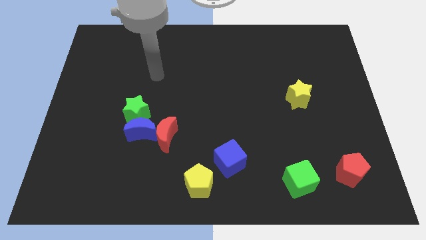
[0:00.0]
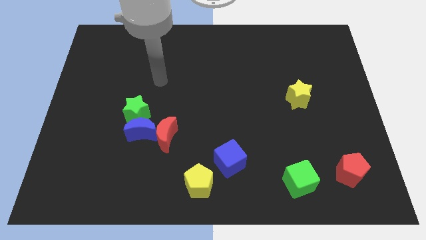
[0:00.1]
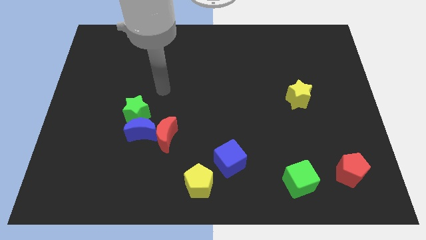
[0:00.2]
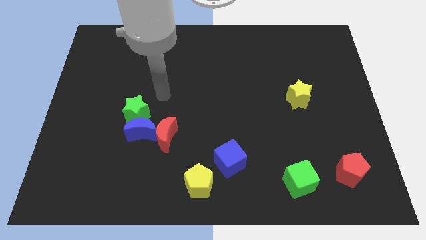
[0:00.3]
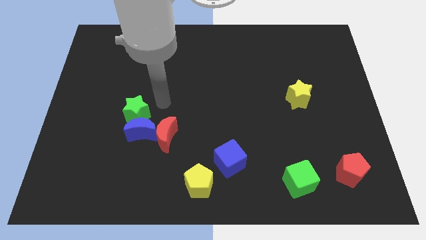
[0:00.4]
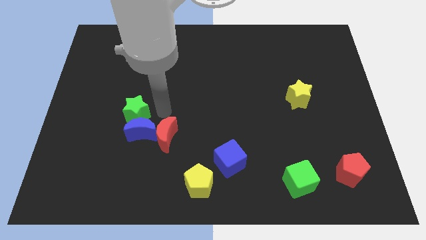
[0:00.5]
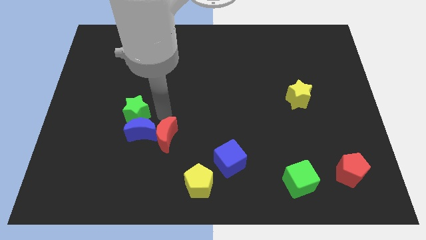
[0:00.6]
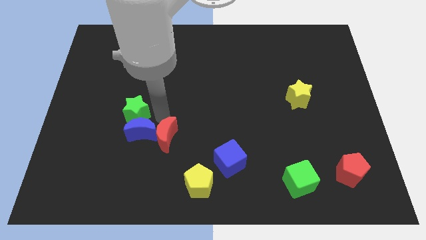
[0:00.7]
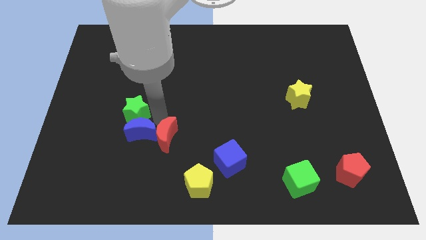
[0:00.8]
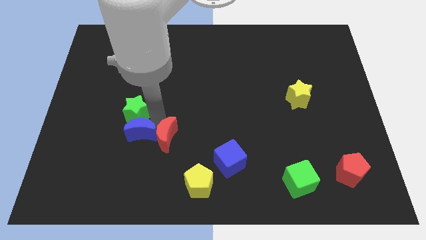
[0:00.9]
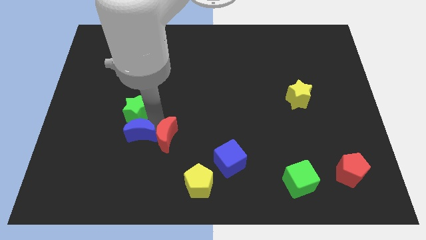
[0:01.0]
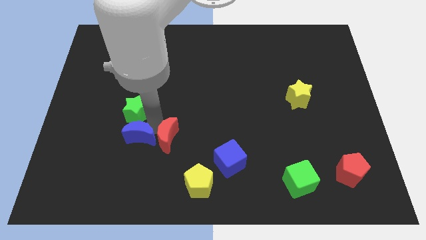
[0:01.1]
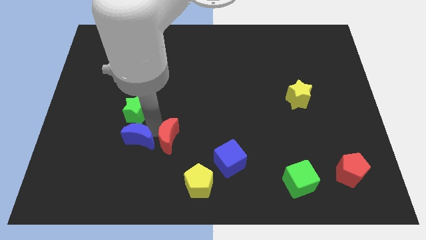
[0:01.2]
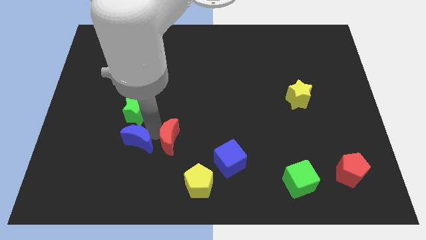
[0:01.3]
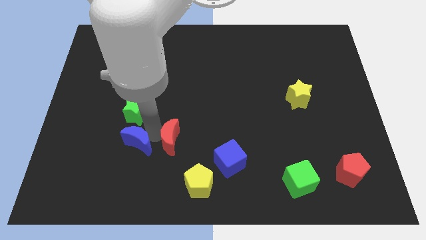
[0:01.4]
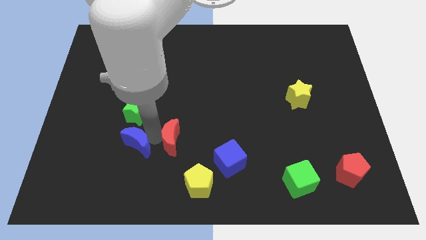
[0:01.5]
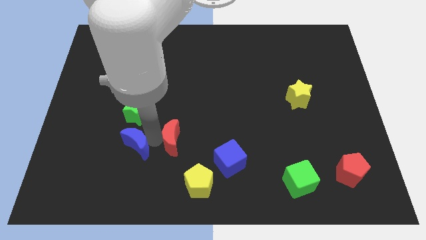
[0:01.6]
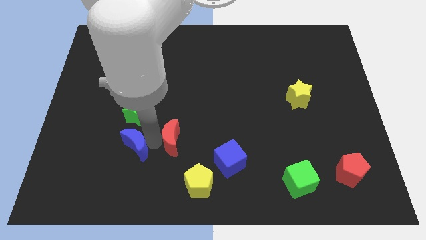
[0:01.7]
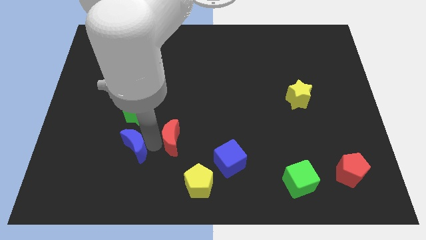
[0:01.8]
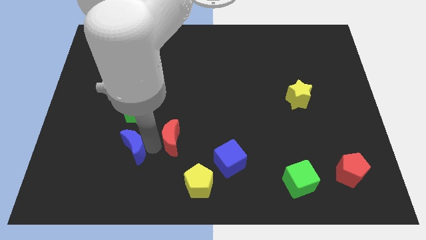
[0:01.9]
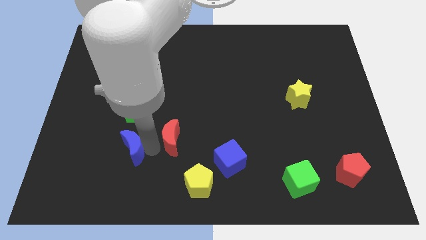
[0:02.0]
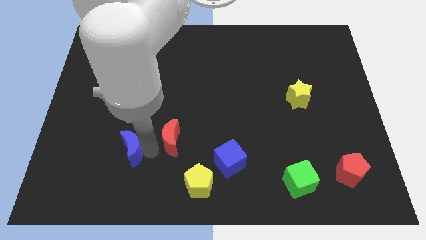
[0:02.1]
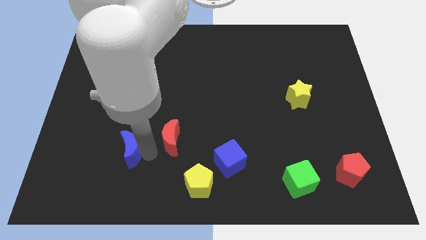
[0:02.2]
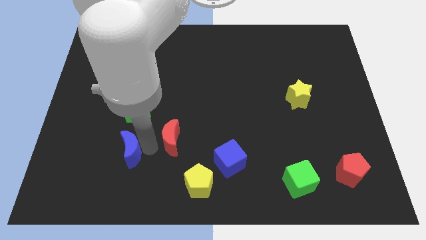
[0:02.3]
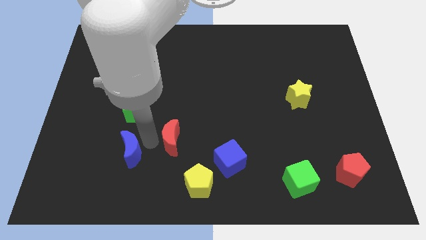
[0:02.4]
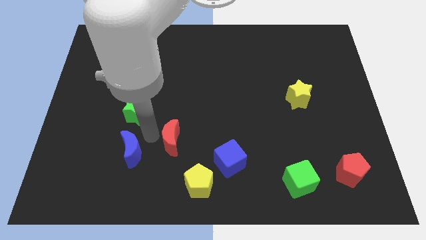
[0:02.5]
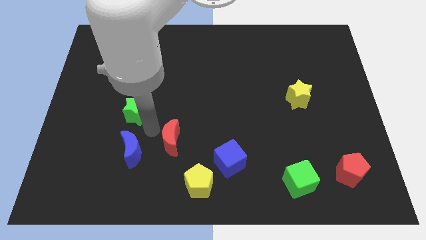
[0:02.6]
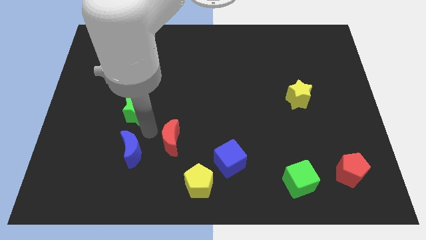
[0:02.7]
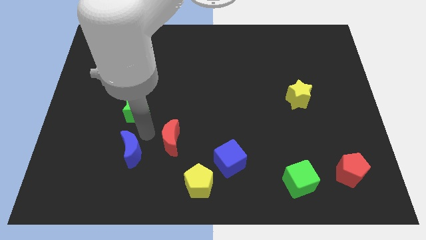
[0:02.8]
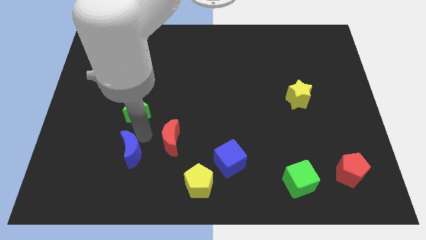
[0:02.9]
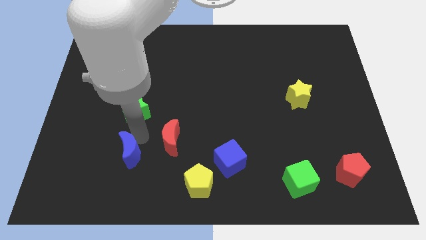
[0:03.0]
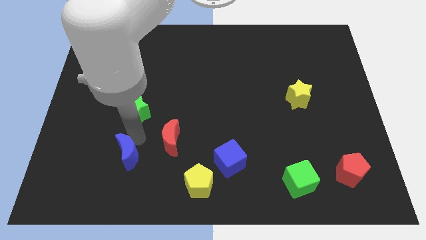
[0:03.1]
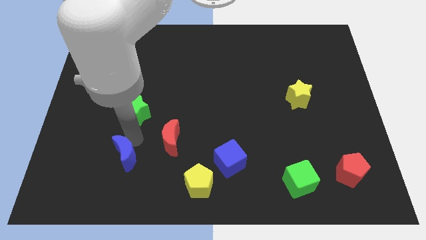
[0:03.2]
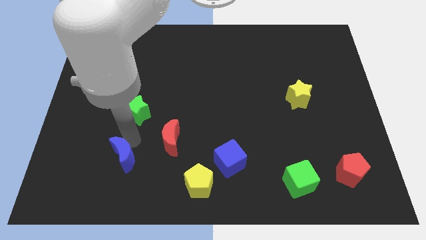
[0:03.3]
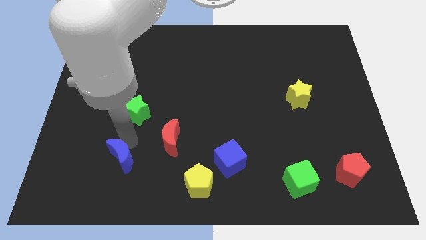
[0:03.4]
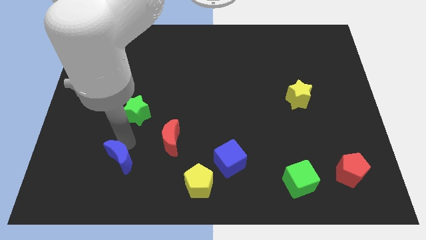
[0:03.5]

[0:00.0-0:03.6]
separate the blue moon from the green star and red moon

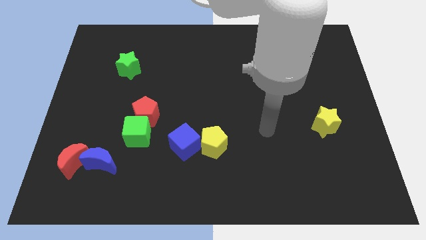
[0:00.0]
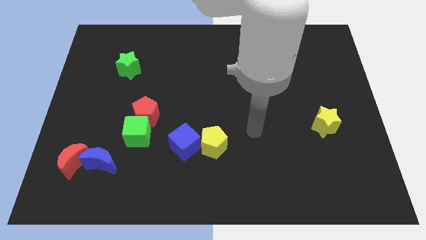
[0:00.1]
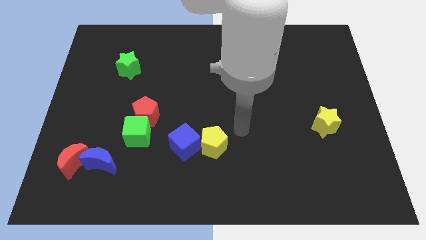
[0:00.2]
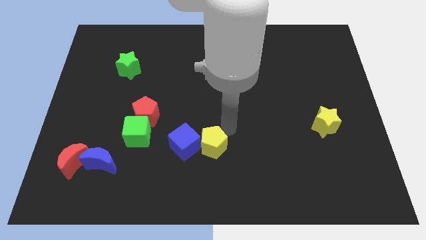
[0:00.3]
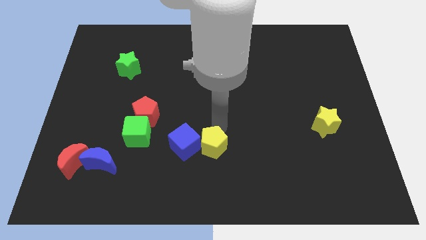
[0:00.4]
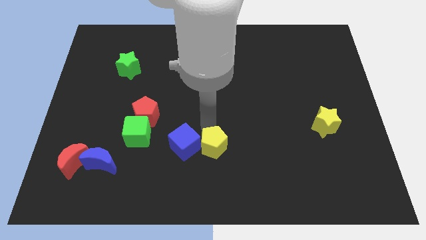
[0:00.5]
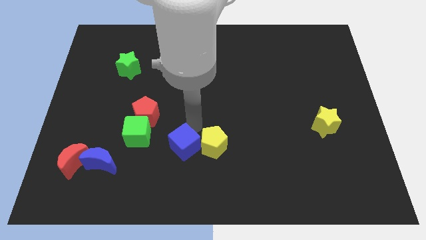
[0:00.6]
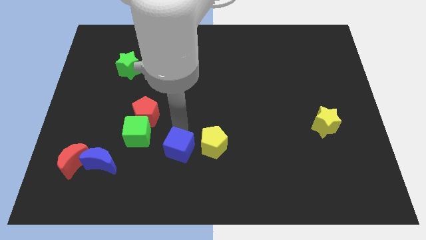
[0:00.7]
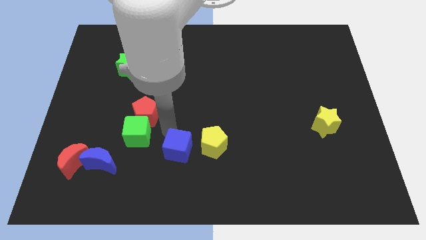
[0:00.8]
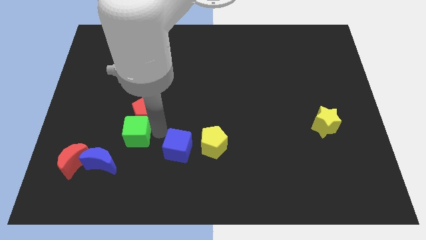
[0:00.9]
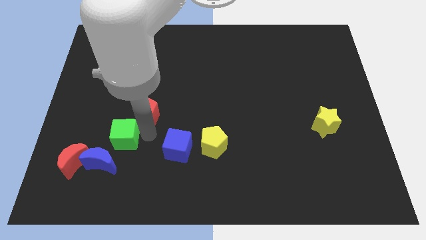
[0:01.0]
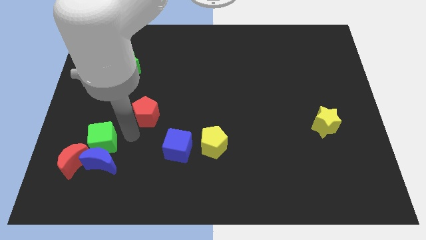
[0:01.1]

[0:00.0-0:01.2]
pull the red pentagon apart from the green cube

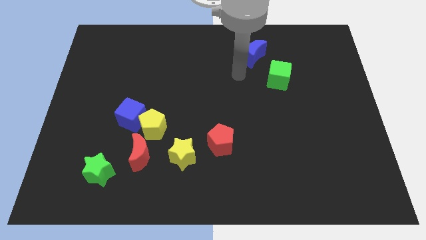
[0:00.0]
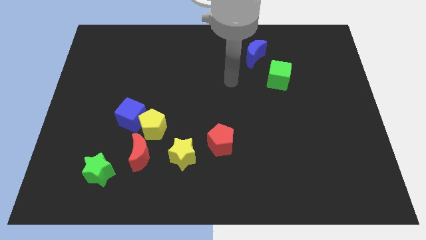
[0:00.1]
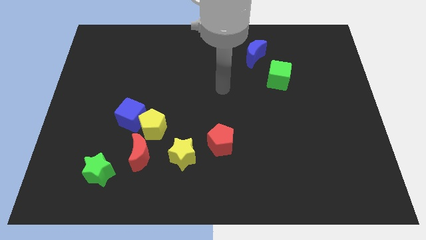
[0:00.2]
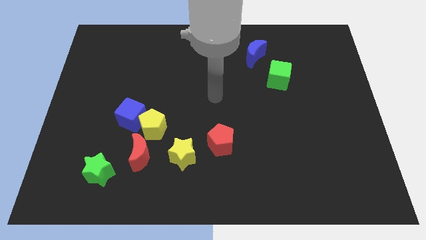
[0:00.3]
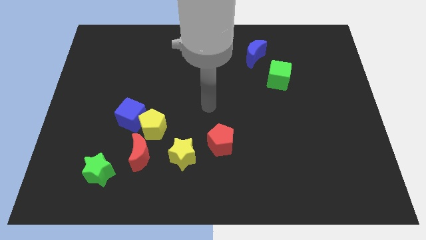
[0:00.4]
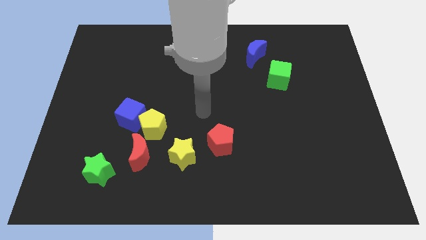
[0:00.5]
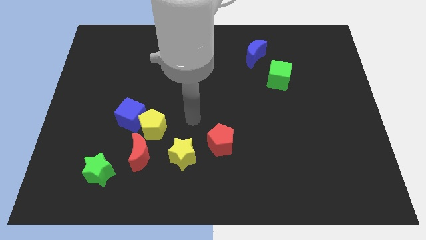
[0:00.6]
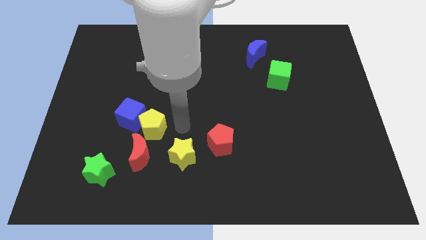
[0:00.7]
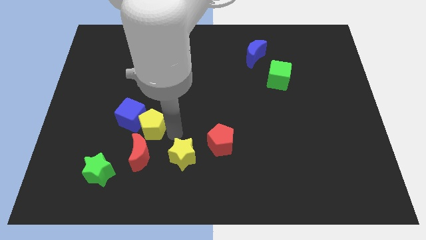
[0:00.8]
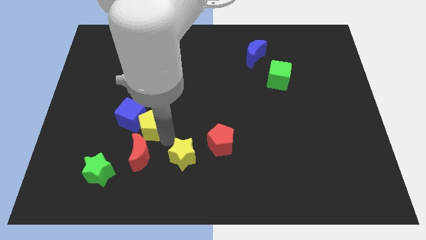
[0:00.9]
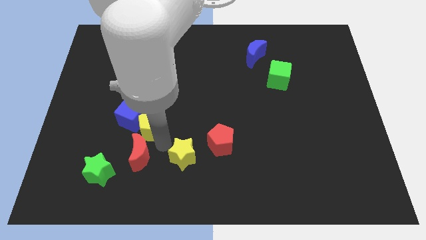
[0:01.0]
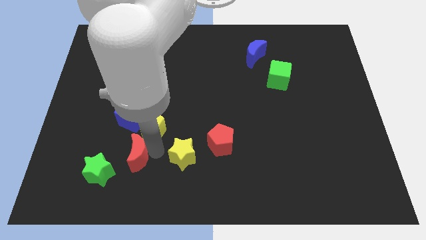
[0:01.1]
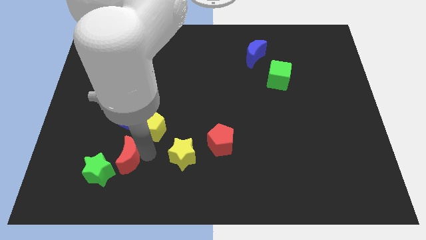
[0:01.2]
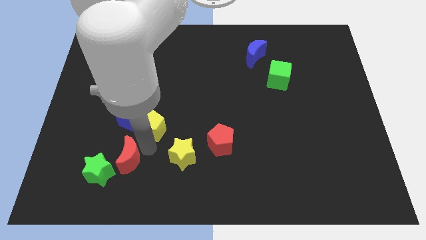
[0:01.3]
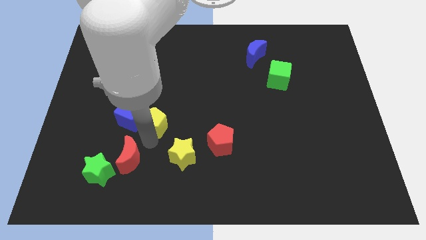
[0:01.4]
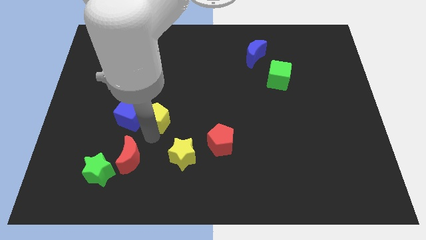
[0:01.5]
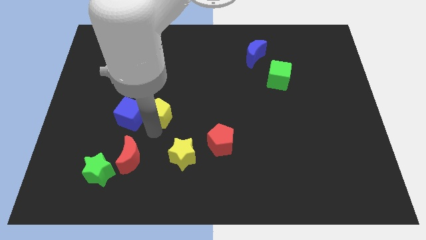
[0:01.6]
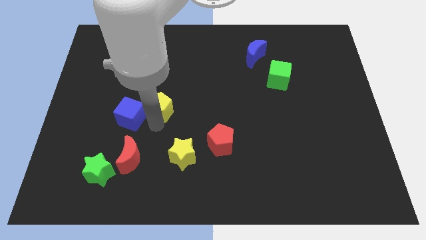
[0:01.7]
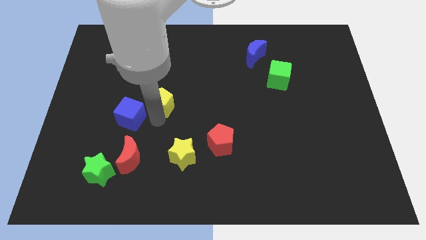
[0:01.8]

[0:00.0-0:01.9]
move the yellow pentagon away from the blue cube, red moon, and yellow star

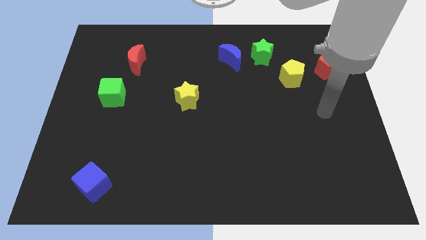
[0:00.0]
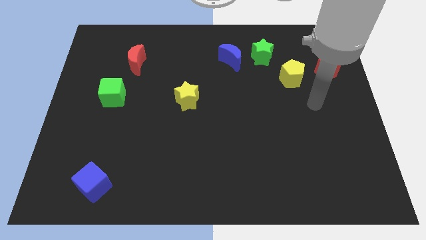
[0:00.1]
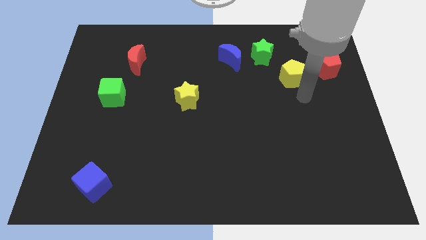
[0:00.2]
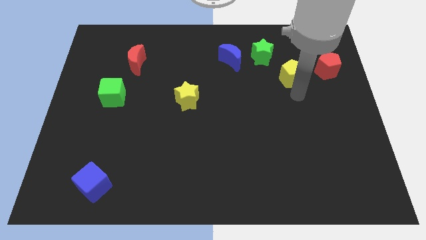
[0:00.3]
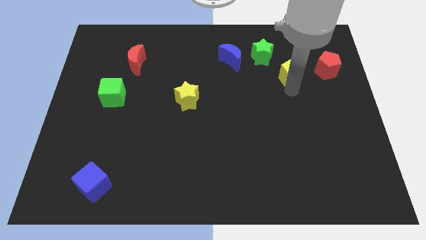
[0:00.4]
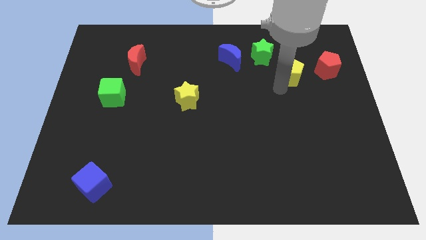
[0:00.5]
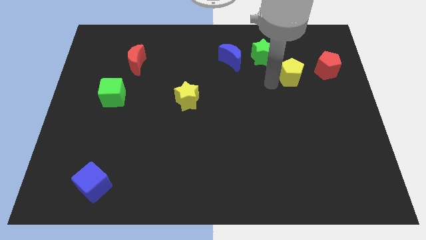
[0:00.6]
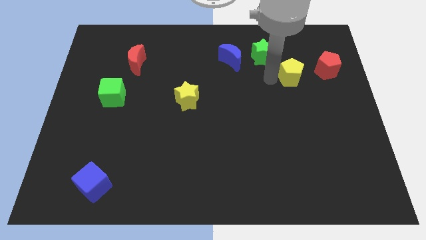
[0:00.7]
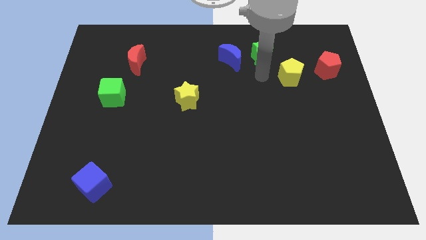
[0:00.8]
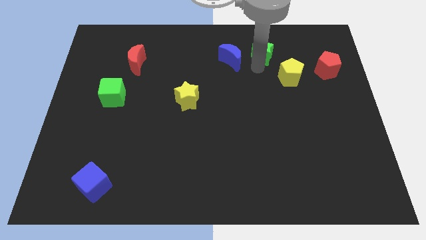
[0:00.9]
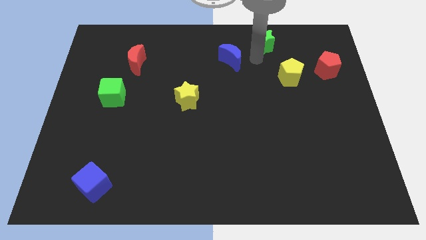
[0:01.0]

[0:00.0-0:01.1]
separate the blue moon from the green star

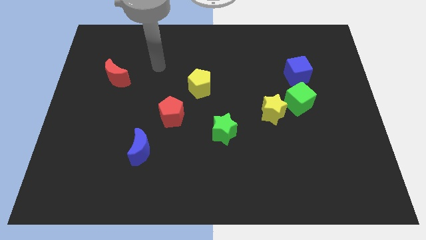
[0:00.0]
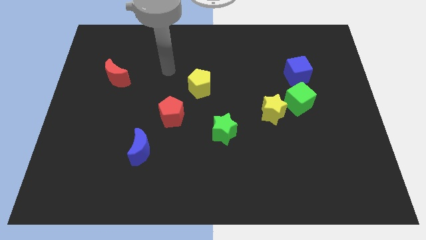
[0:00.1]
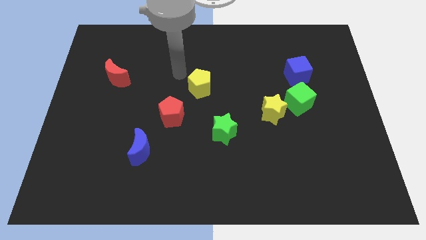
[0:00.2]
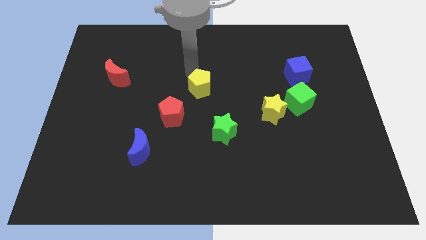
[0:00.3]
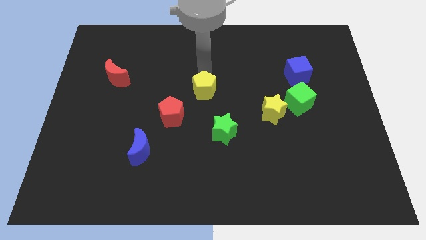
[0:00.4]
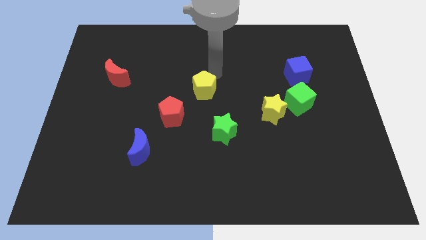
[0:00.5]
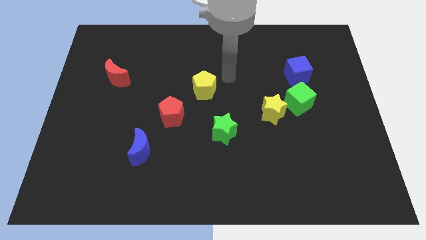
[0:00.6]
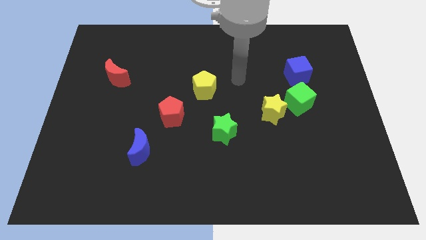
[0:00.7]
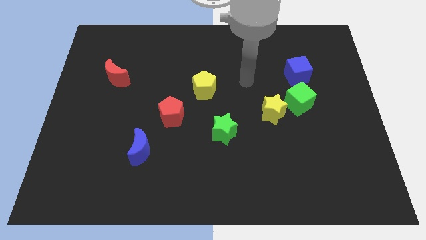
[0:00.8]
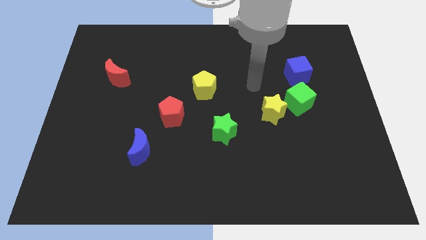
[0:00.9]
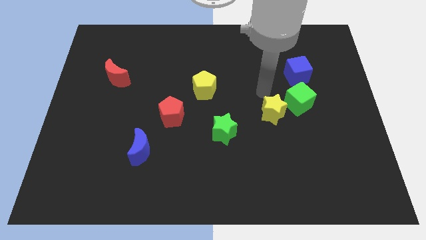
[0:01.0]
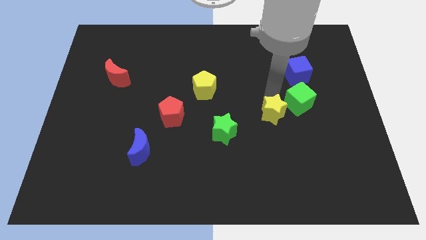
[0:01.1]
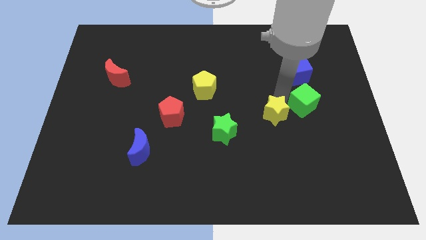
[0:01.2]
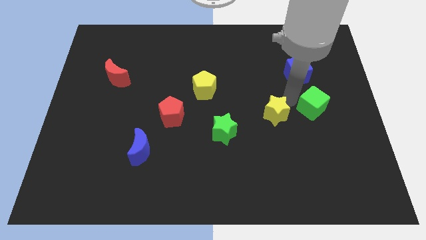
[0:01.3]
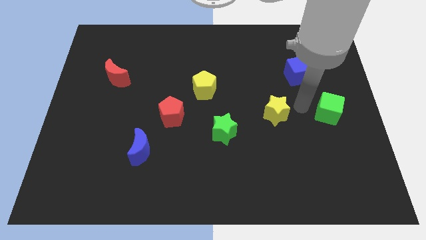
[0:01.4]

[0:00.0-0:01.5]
move the yellow star away from the green cube
